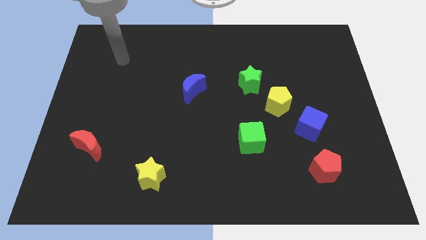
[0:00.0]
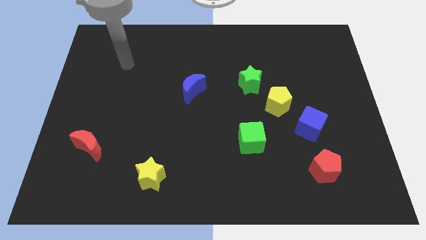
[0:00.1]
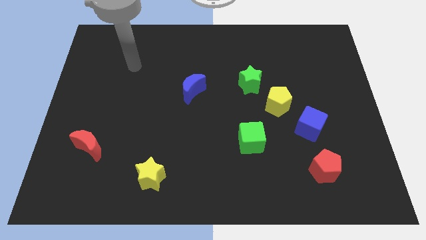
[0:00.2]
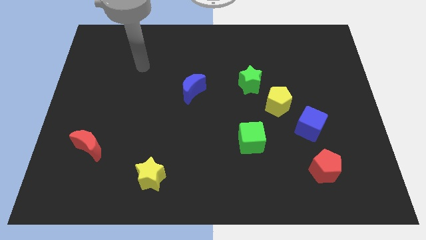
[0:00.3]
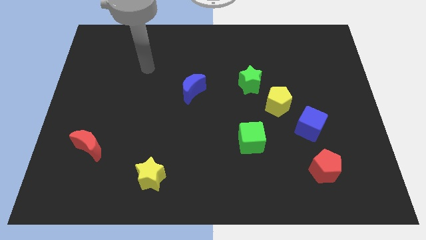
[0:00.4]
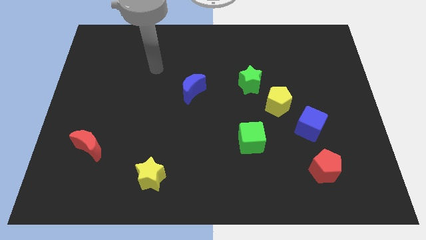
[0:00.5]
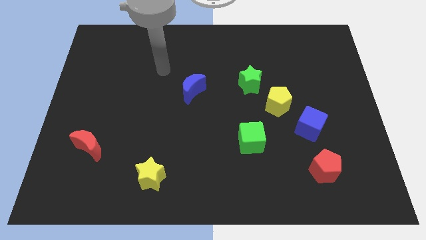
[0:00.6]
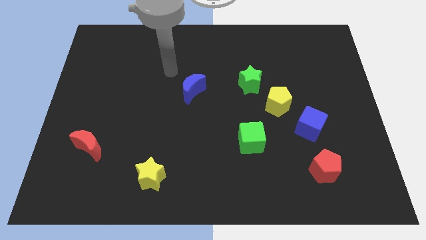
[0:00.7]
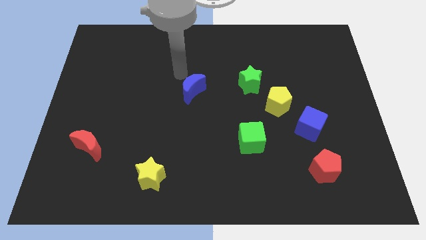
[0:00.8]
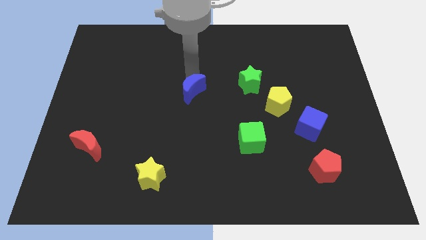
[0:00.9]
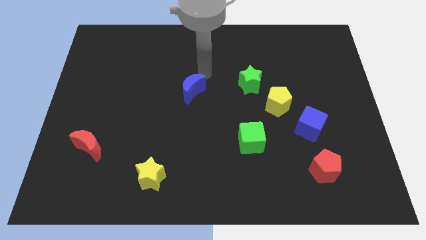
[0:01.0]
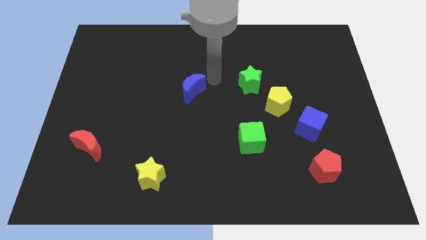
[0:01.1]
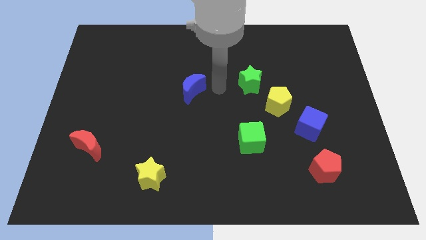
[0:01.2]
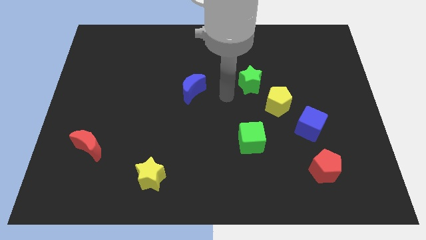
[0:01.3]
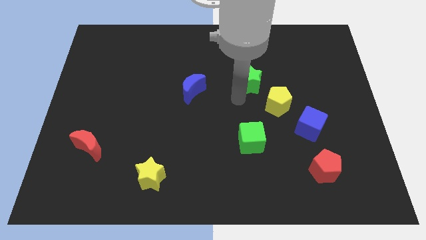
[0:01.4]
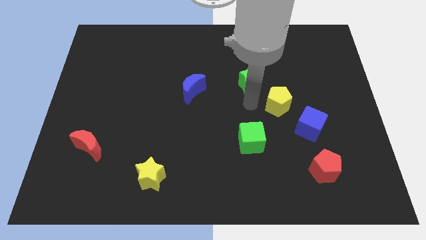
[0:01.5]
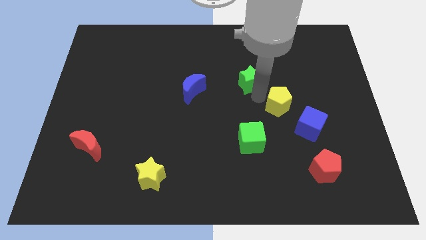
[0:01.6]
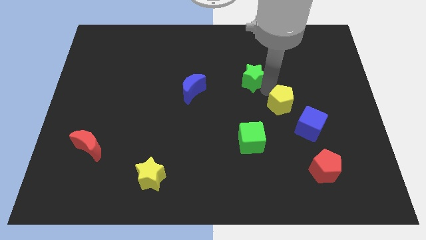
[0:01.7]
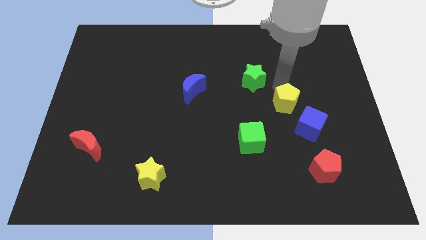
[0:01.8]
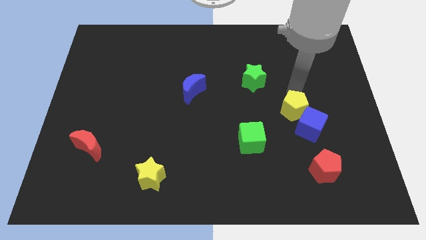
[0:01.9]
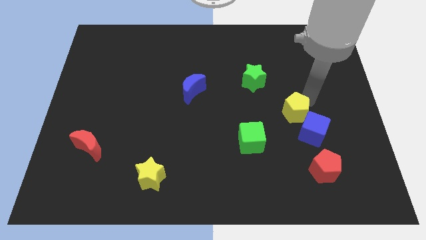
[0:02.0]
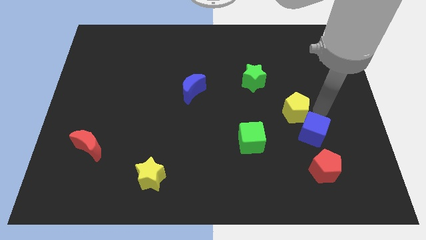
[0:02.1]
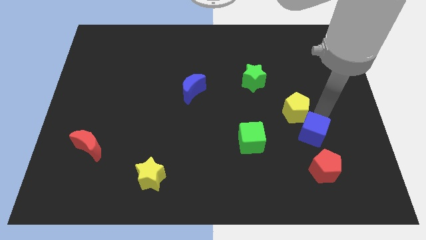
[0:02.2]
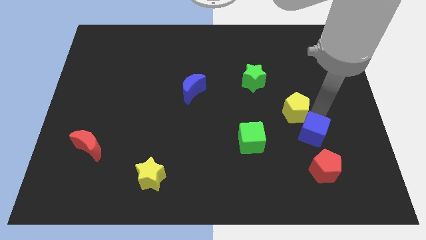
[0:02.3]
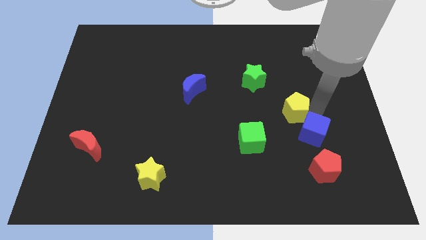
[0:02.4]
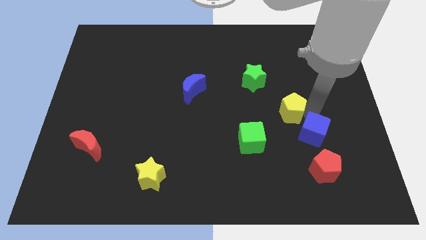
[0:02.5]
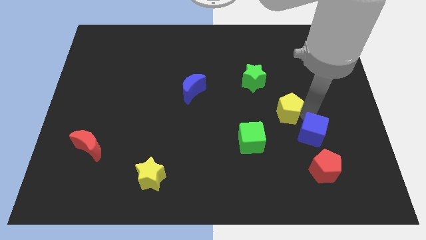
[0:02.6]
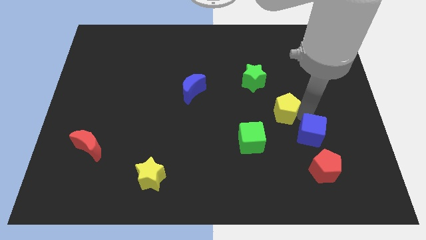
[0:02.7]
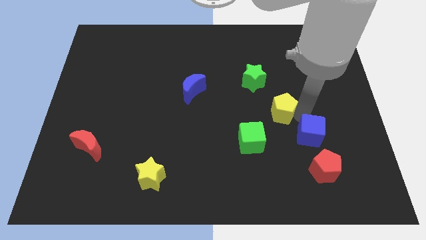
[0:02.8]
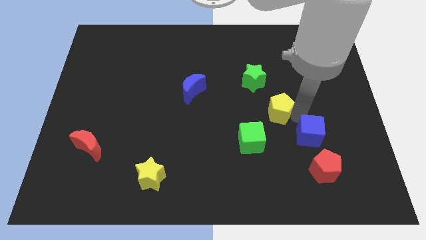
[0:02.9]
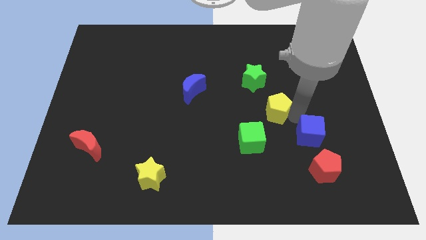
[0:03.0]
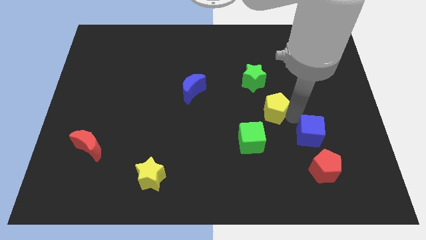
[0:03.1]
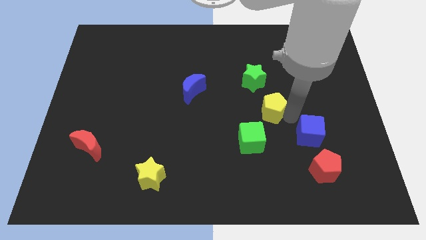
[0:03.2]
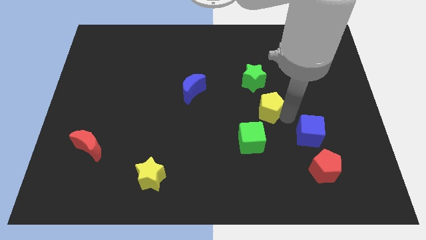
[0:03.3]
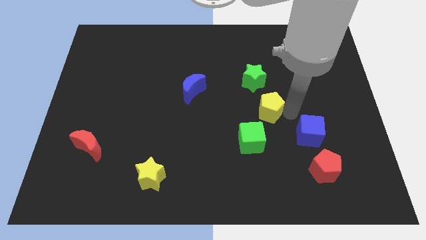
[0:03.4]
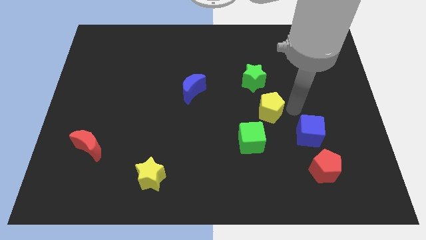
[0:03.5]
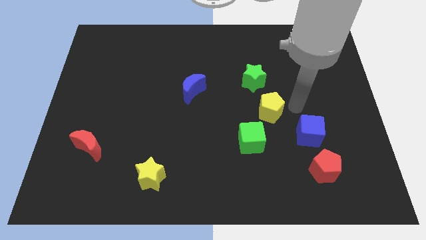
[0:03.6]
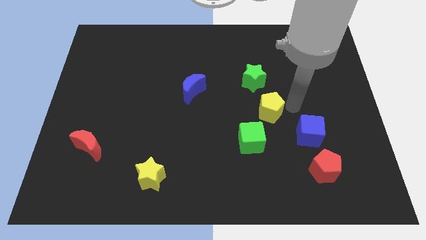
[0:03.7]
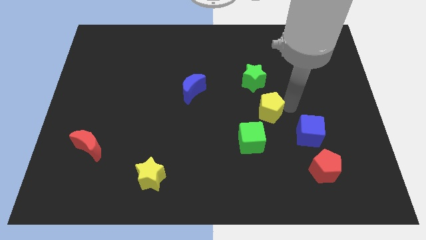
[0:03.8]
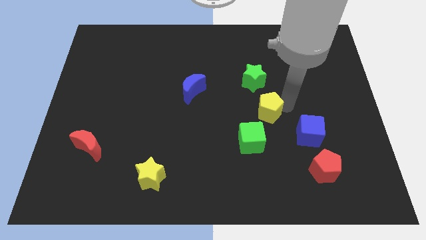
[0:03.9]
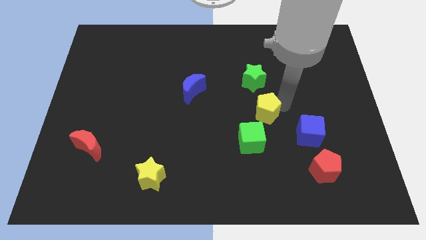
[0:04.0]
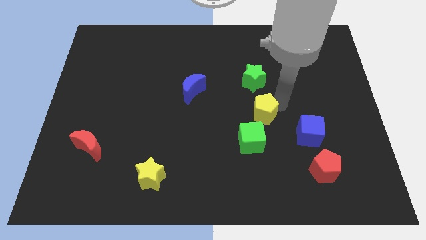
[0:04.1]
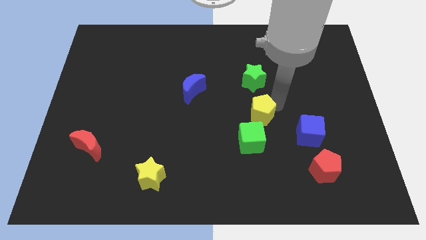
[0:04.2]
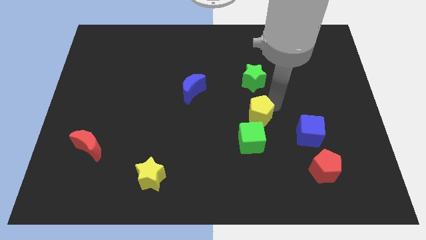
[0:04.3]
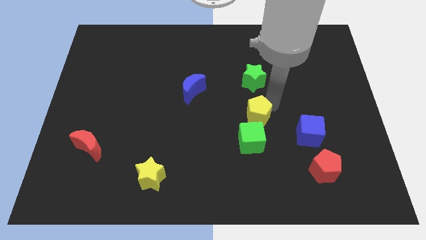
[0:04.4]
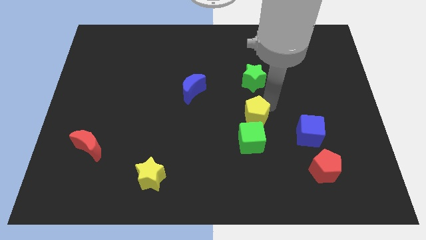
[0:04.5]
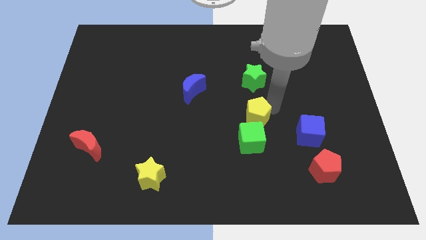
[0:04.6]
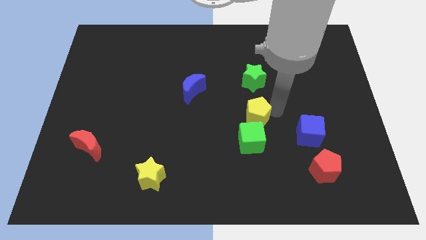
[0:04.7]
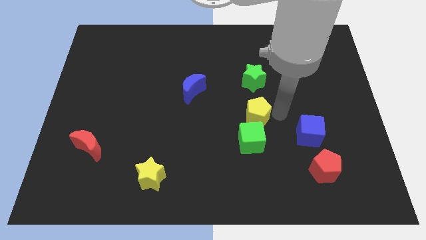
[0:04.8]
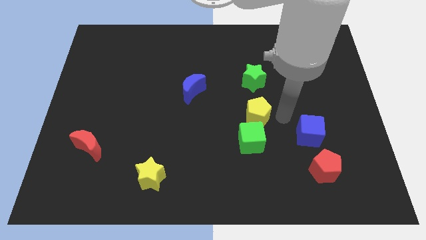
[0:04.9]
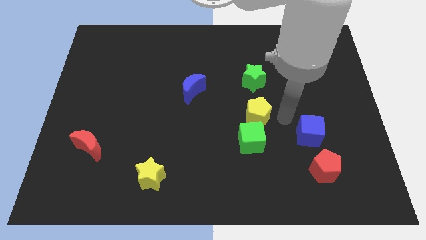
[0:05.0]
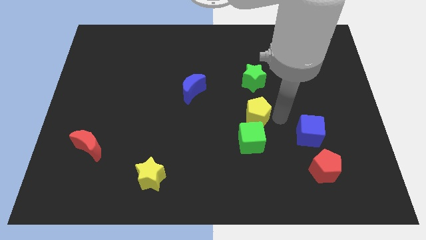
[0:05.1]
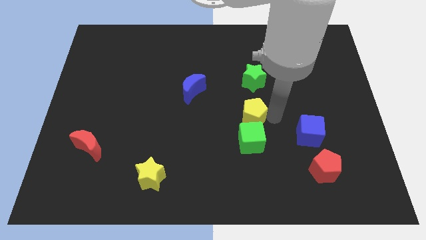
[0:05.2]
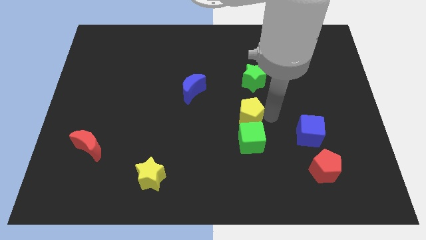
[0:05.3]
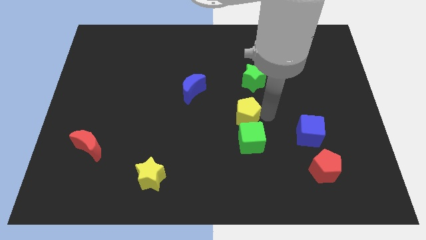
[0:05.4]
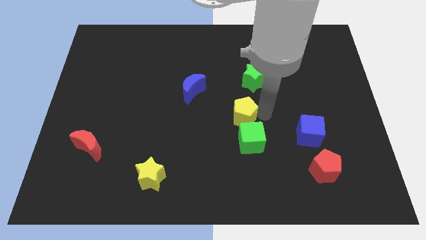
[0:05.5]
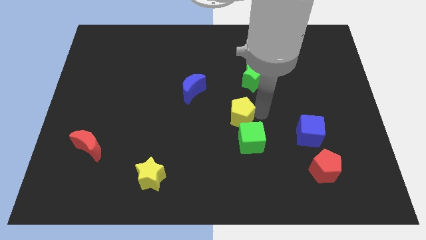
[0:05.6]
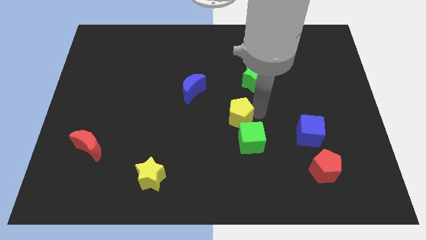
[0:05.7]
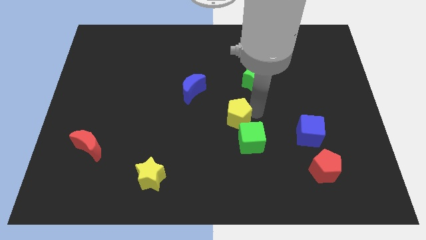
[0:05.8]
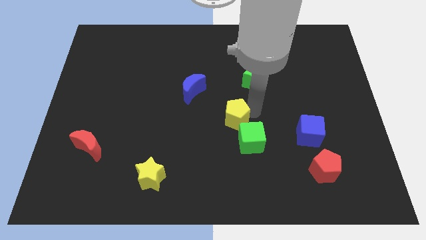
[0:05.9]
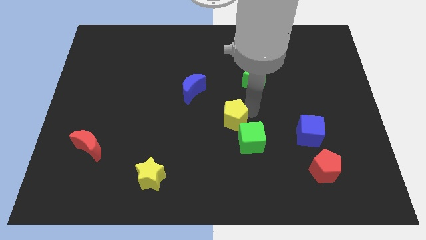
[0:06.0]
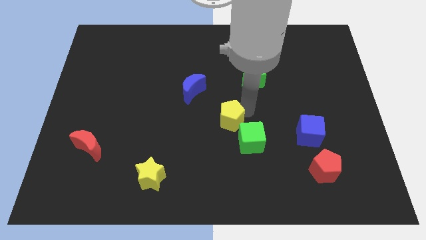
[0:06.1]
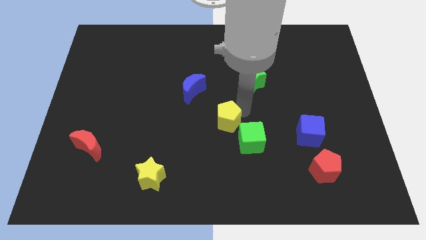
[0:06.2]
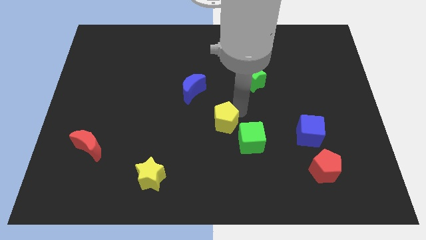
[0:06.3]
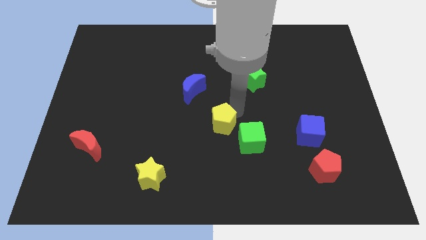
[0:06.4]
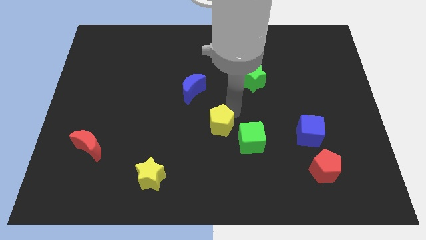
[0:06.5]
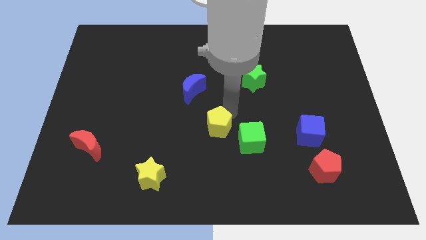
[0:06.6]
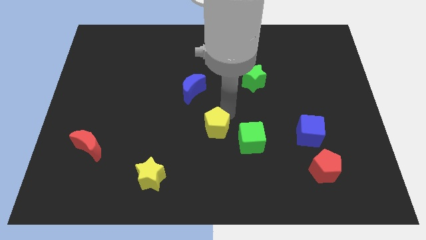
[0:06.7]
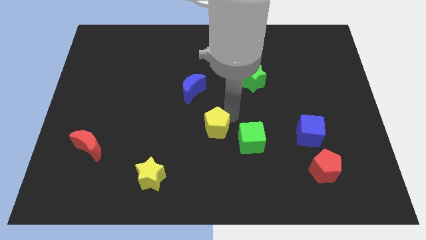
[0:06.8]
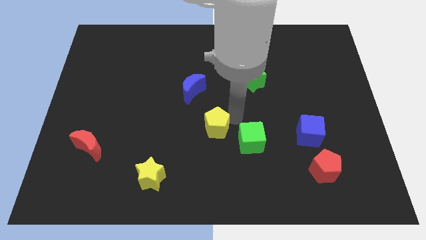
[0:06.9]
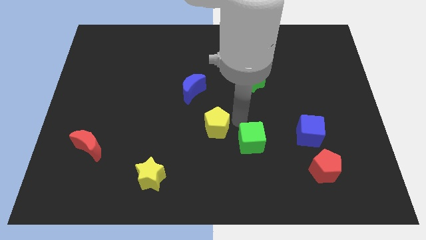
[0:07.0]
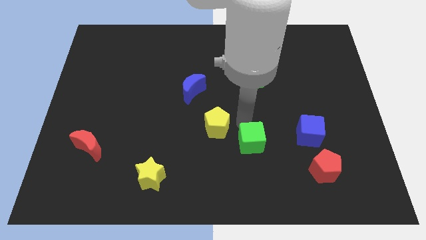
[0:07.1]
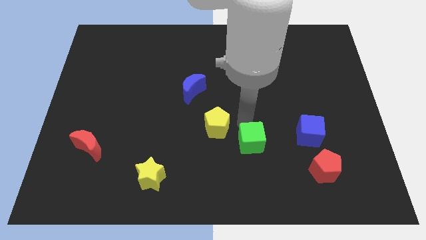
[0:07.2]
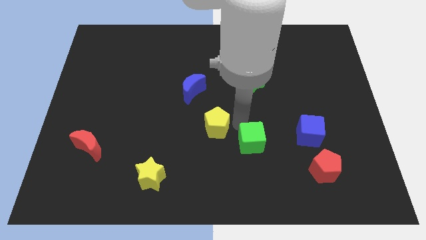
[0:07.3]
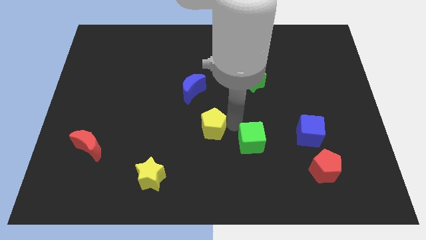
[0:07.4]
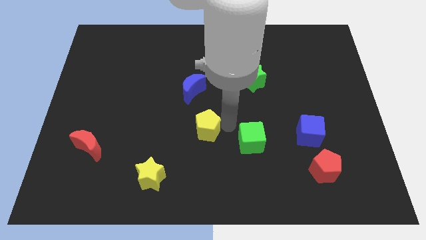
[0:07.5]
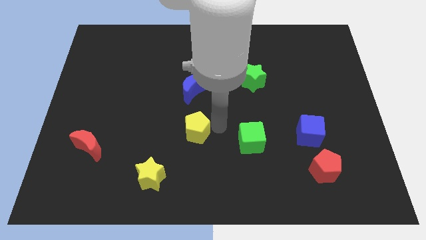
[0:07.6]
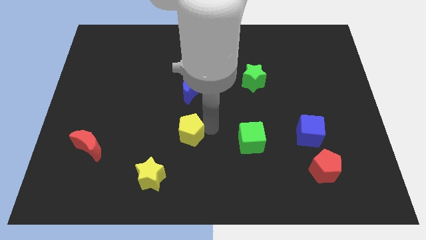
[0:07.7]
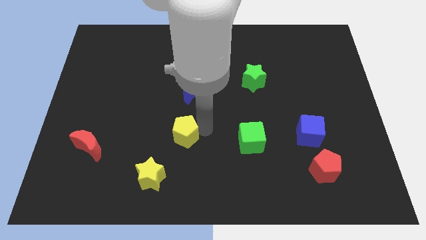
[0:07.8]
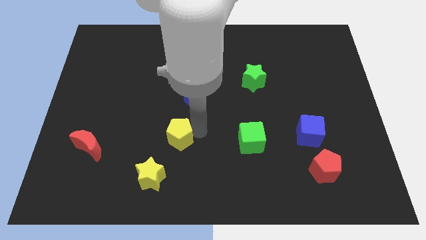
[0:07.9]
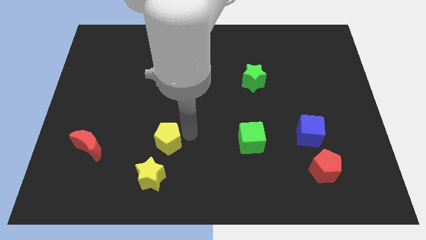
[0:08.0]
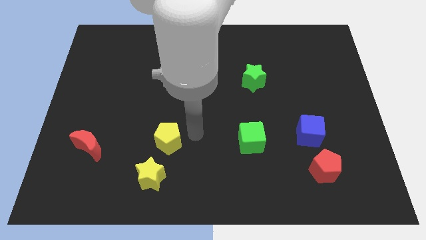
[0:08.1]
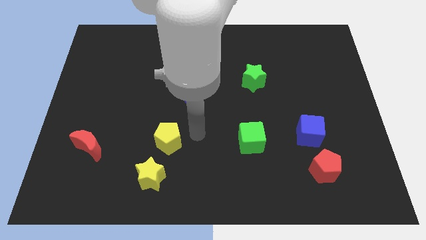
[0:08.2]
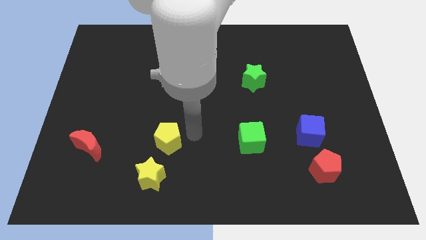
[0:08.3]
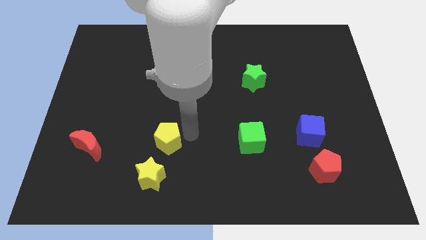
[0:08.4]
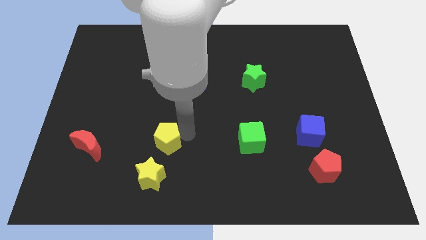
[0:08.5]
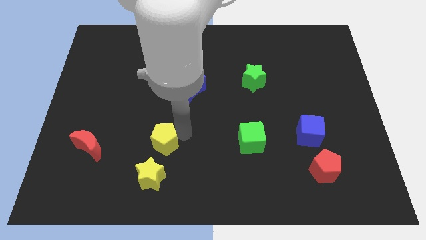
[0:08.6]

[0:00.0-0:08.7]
push the yellow pentagon just right of the red moon
